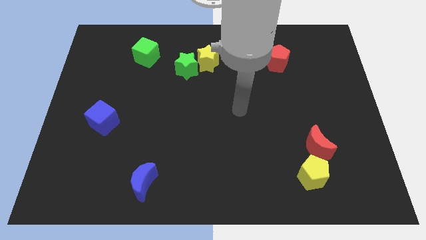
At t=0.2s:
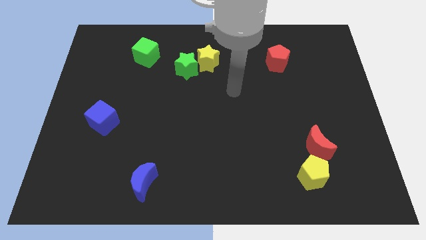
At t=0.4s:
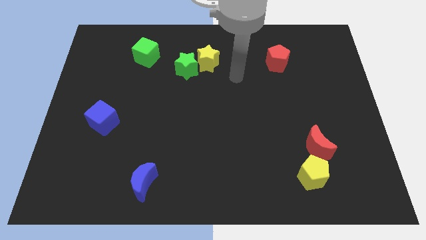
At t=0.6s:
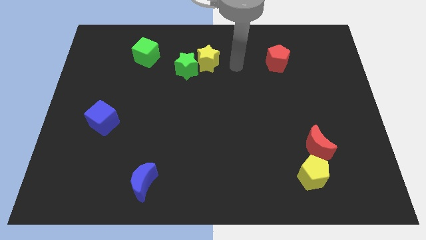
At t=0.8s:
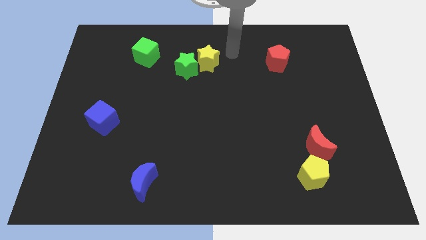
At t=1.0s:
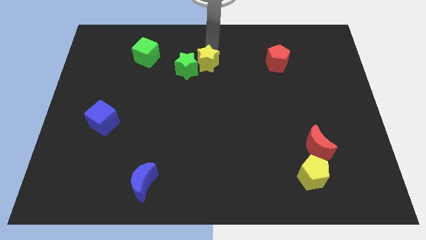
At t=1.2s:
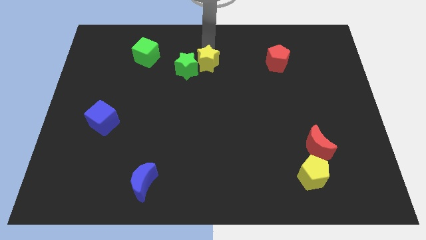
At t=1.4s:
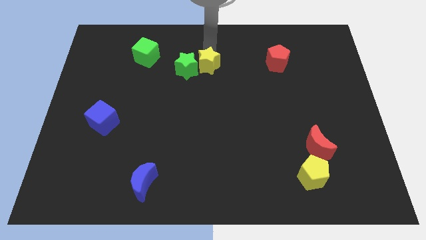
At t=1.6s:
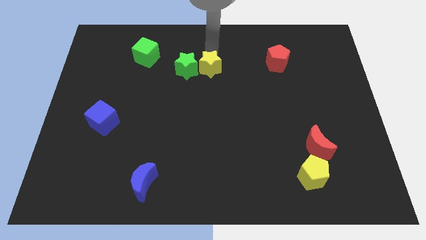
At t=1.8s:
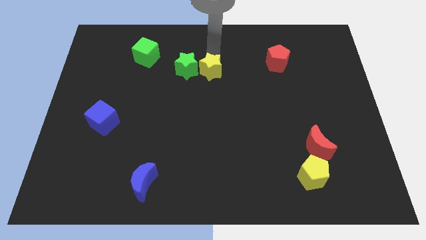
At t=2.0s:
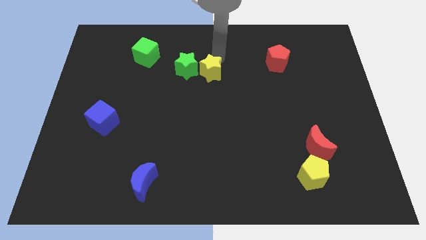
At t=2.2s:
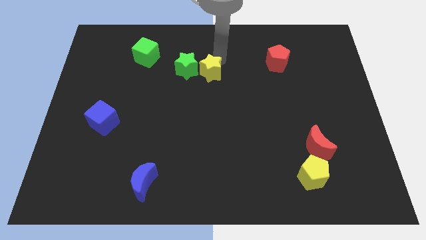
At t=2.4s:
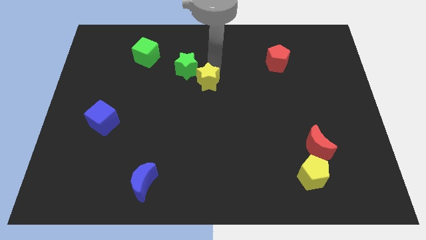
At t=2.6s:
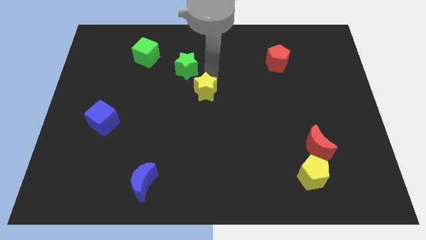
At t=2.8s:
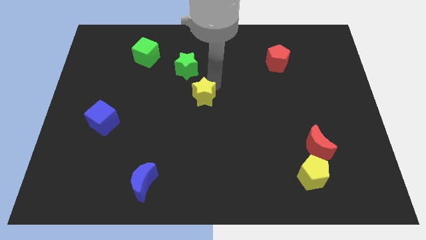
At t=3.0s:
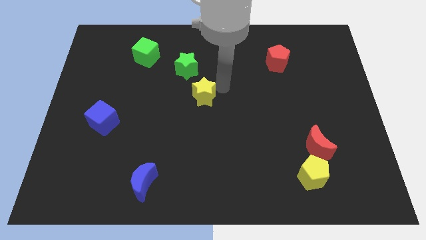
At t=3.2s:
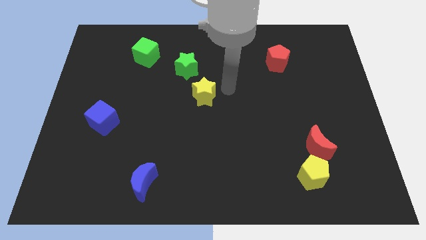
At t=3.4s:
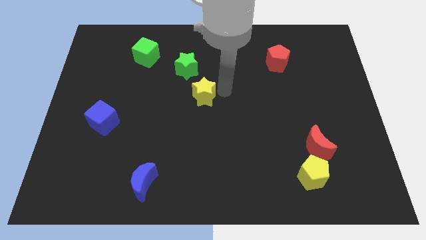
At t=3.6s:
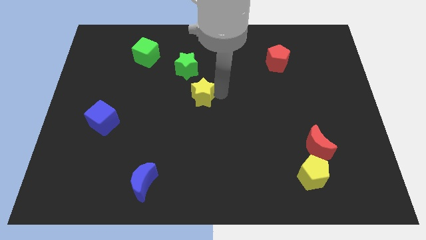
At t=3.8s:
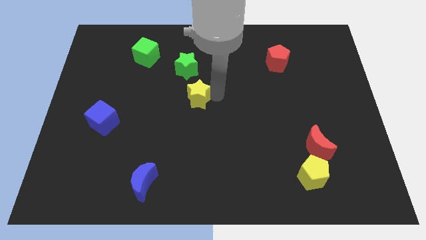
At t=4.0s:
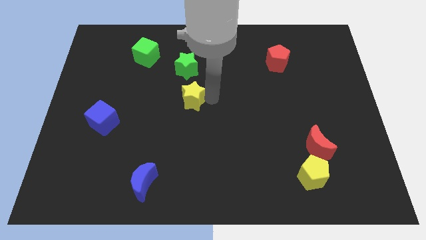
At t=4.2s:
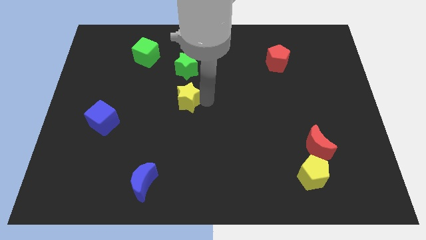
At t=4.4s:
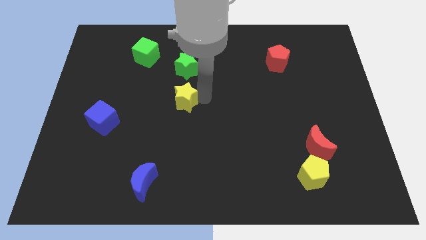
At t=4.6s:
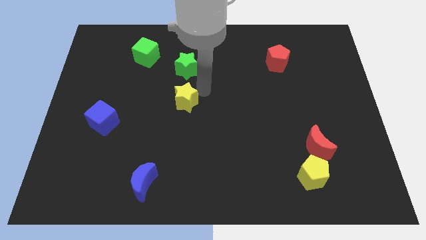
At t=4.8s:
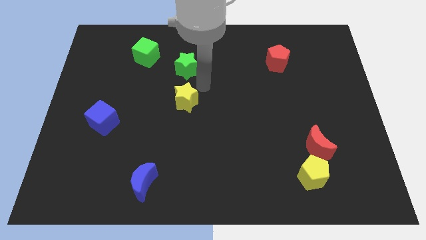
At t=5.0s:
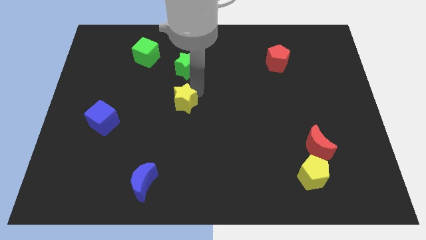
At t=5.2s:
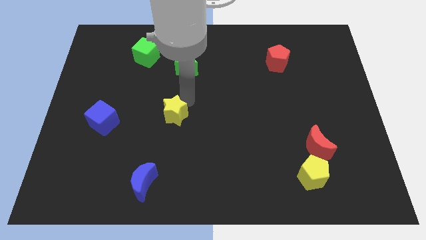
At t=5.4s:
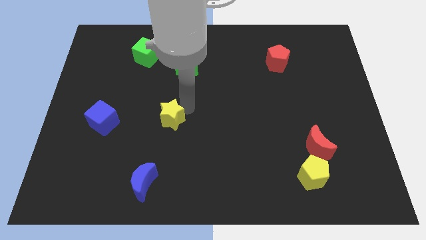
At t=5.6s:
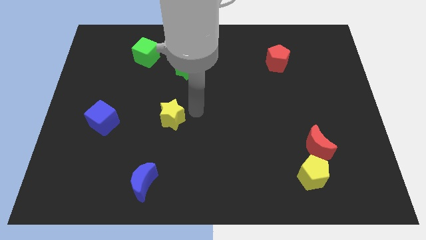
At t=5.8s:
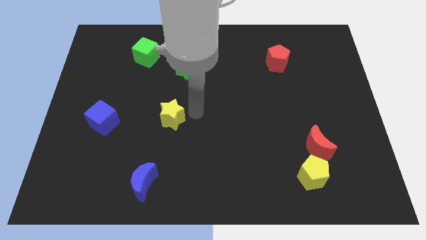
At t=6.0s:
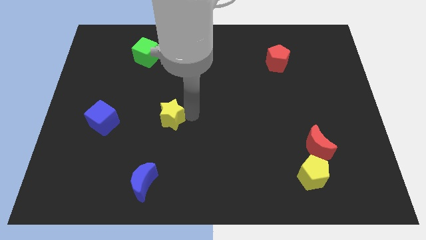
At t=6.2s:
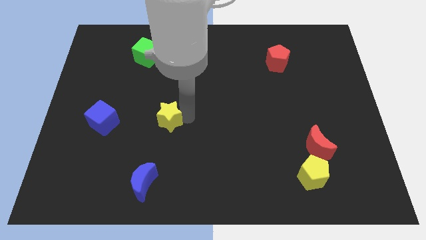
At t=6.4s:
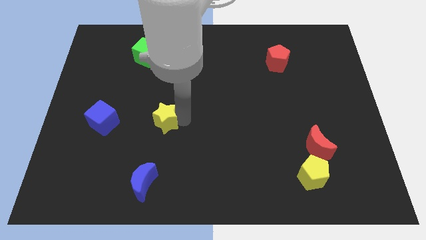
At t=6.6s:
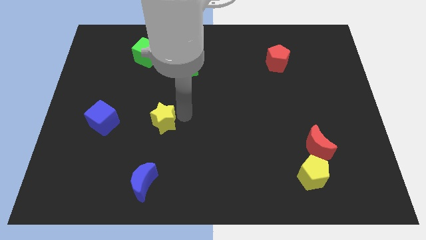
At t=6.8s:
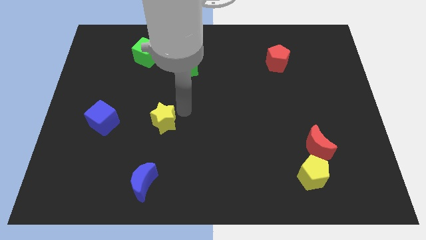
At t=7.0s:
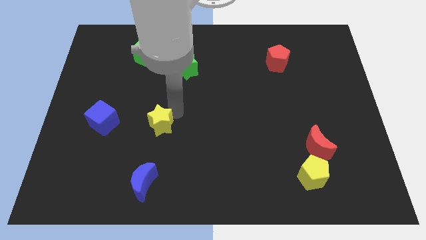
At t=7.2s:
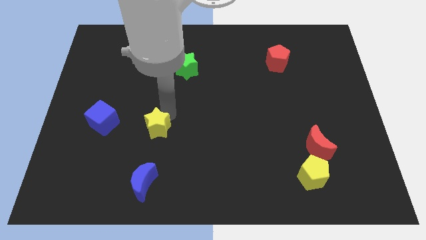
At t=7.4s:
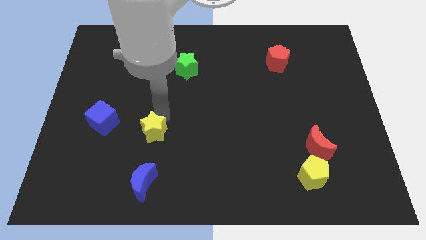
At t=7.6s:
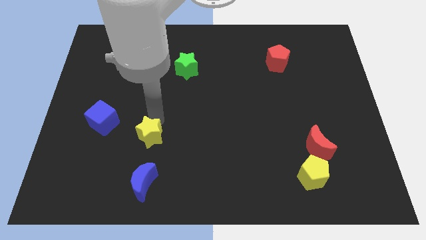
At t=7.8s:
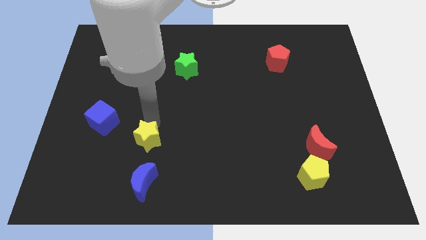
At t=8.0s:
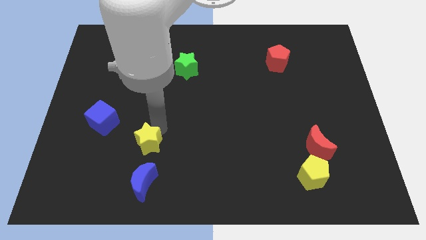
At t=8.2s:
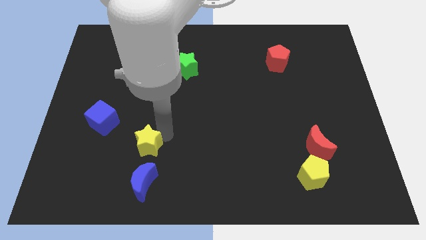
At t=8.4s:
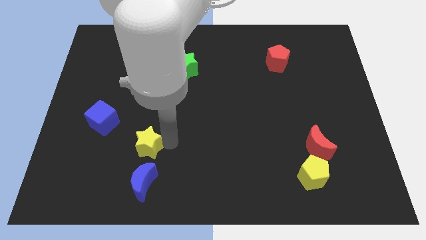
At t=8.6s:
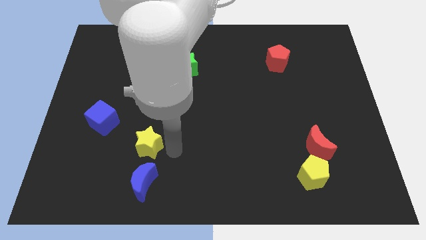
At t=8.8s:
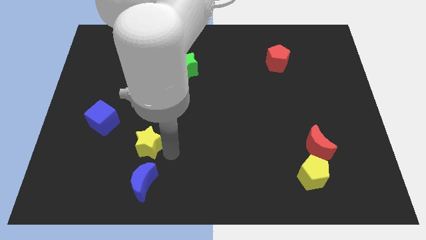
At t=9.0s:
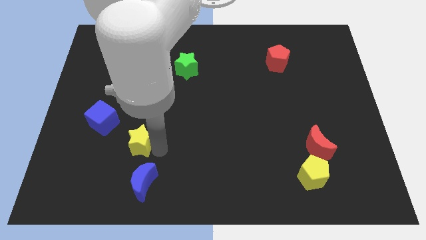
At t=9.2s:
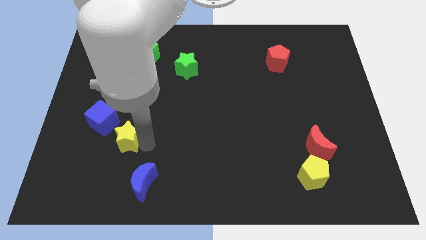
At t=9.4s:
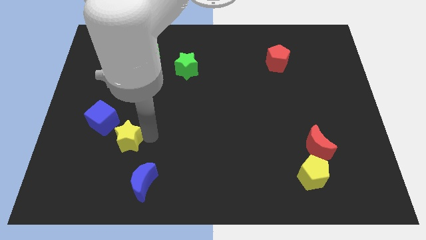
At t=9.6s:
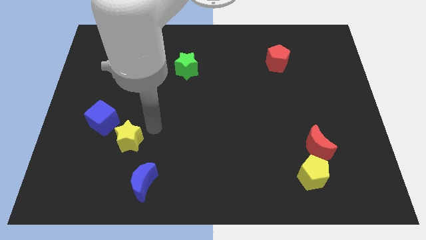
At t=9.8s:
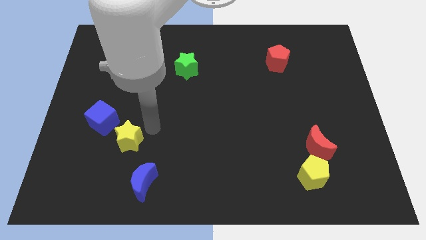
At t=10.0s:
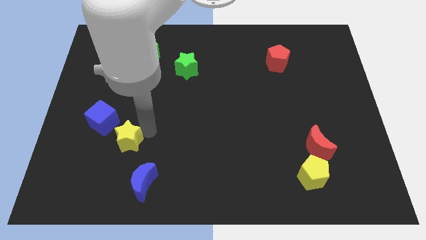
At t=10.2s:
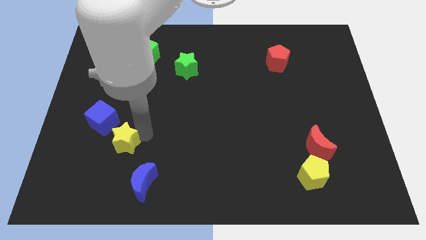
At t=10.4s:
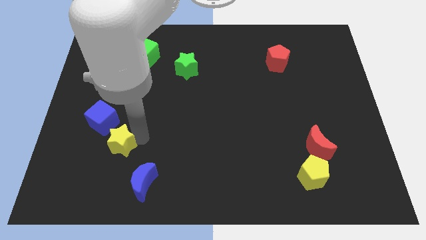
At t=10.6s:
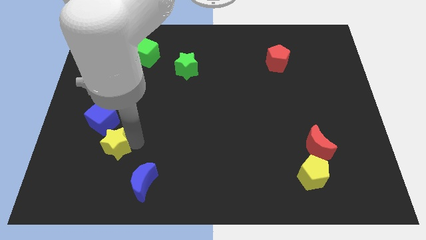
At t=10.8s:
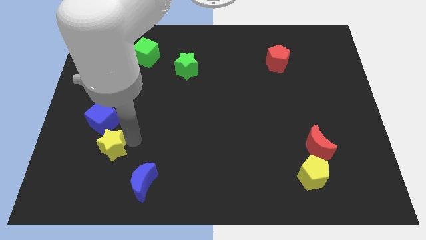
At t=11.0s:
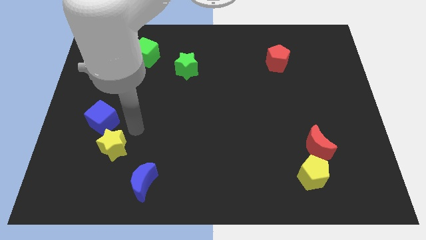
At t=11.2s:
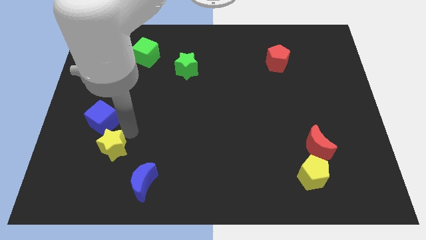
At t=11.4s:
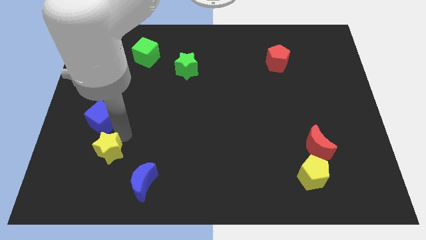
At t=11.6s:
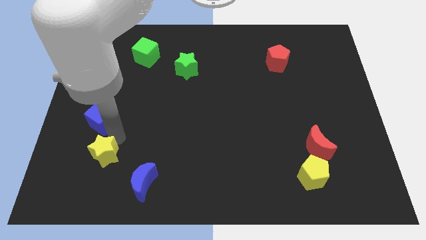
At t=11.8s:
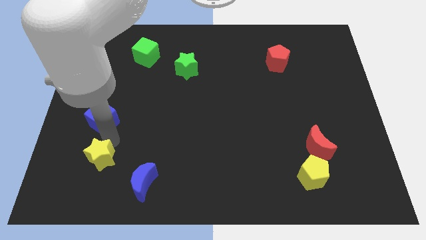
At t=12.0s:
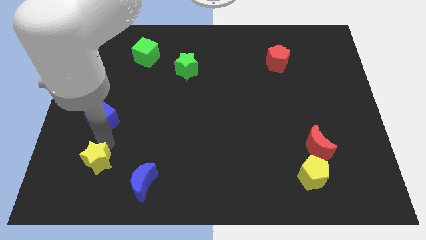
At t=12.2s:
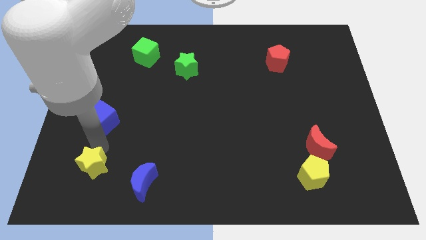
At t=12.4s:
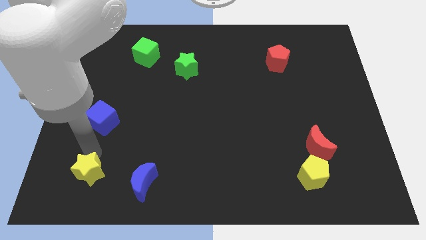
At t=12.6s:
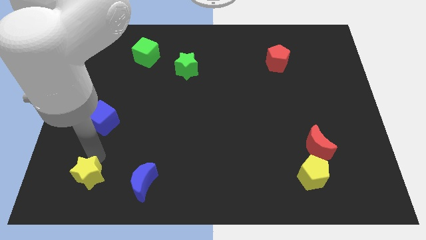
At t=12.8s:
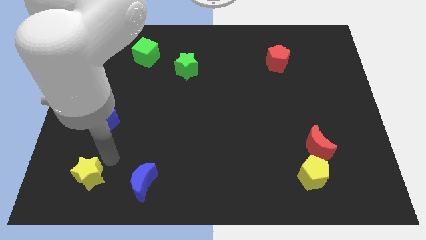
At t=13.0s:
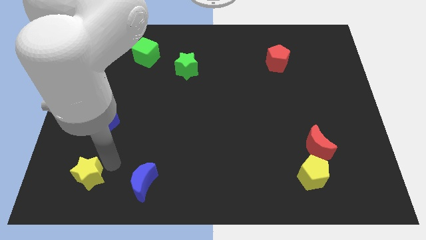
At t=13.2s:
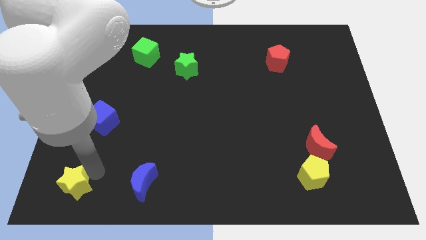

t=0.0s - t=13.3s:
put the yellow star to the bottom left of the board
